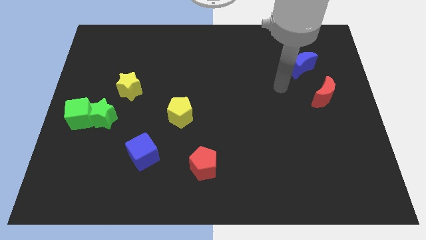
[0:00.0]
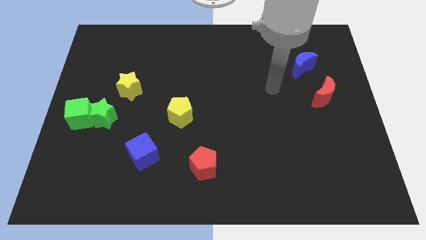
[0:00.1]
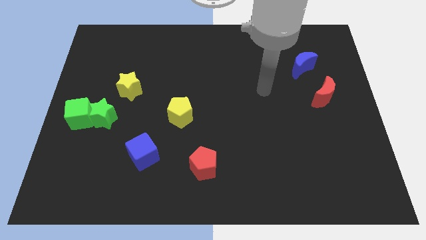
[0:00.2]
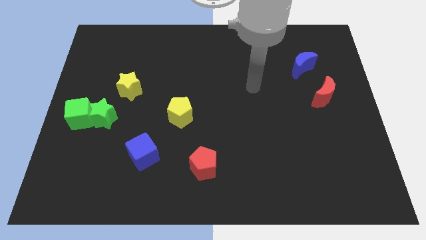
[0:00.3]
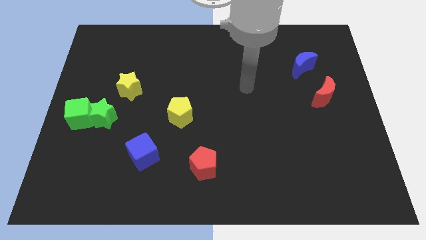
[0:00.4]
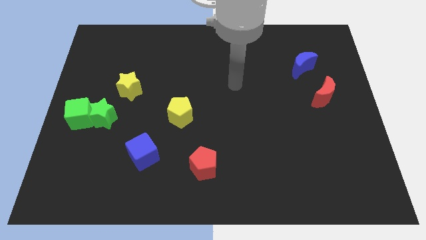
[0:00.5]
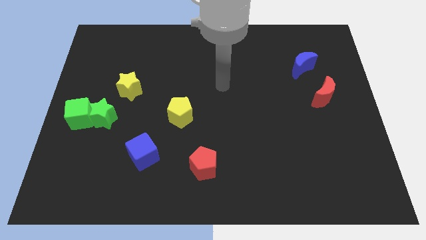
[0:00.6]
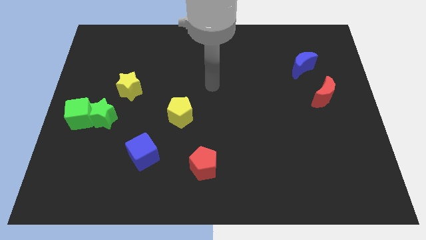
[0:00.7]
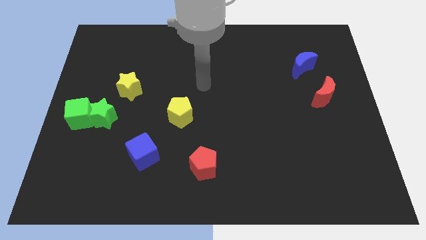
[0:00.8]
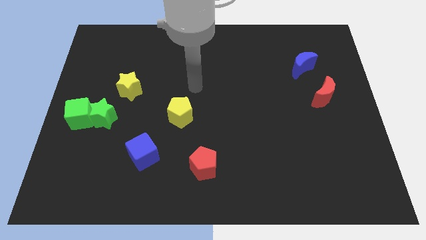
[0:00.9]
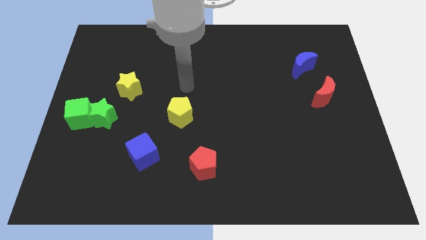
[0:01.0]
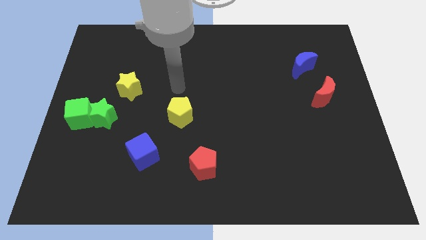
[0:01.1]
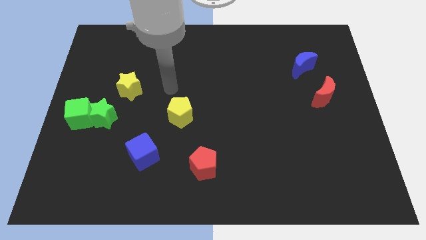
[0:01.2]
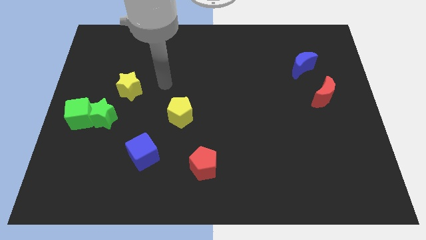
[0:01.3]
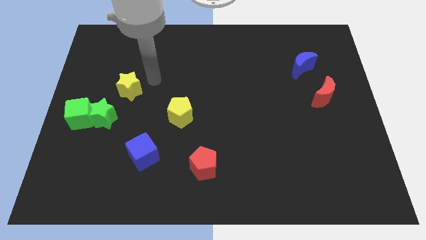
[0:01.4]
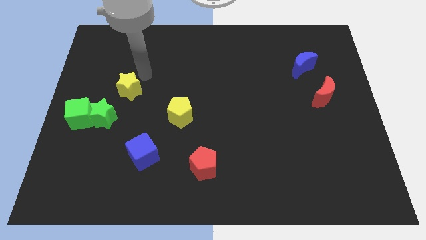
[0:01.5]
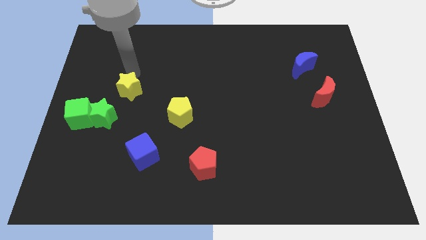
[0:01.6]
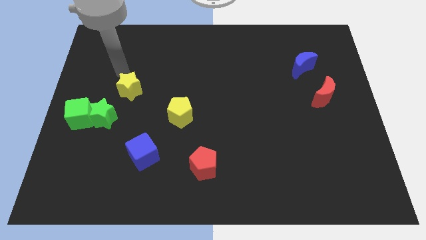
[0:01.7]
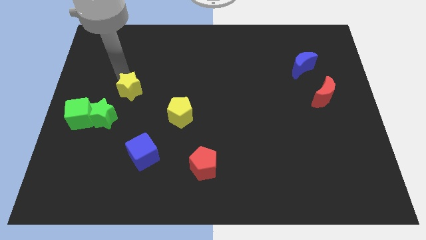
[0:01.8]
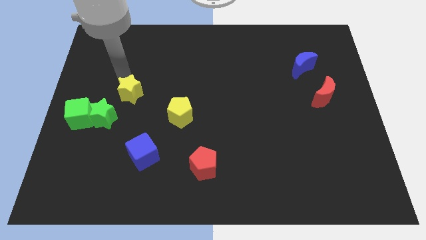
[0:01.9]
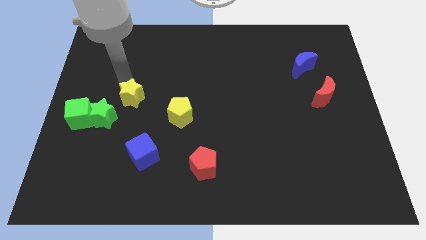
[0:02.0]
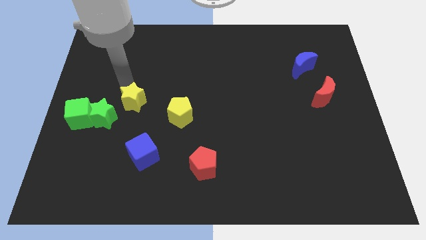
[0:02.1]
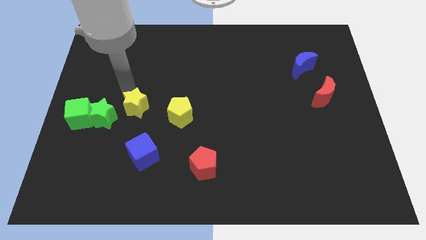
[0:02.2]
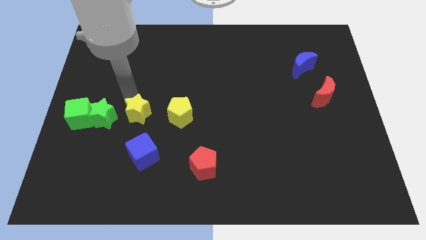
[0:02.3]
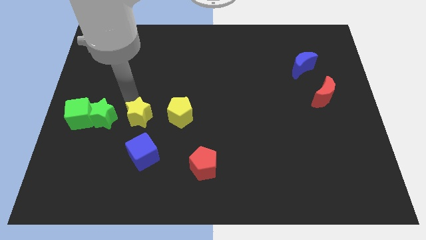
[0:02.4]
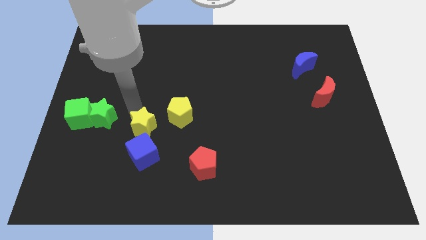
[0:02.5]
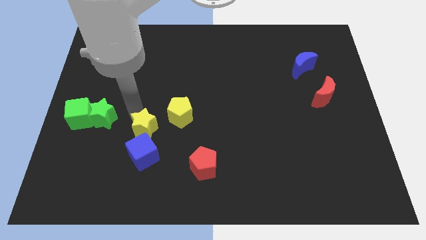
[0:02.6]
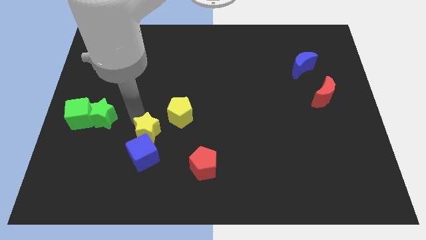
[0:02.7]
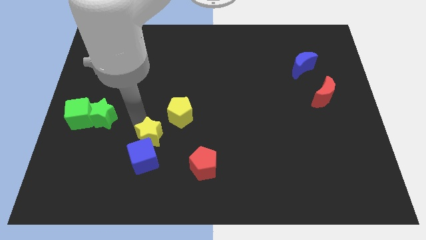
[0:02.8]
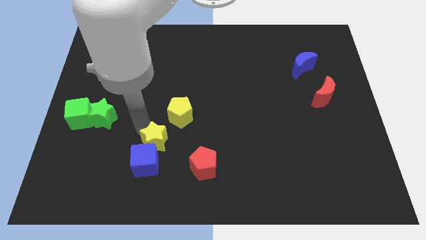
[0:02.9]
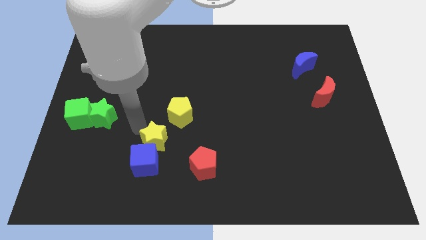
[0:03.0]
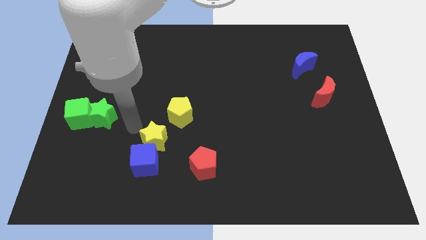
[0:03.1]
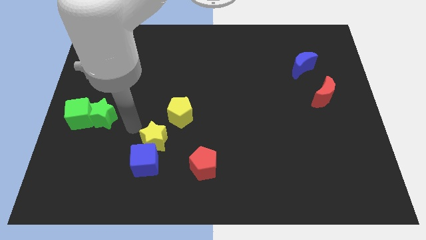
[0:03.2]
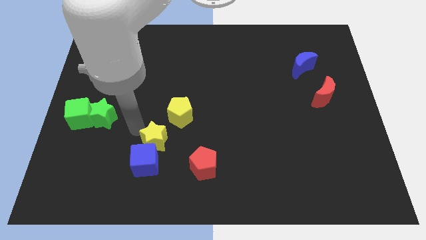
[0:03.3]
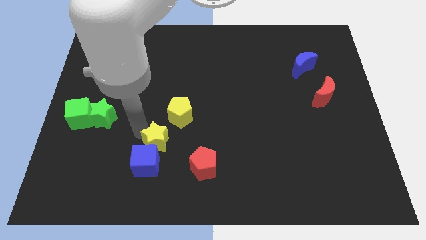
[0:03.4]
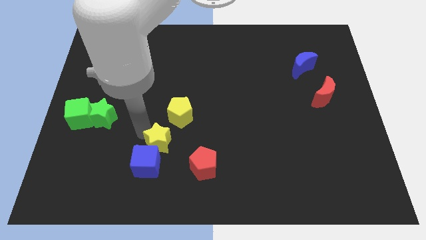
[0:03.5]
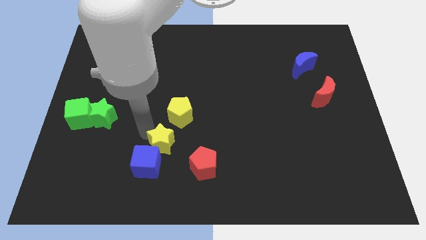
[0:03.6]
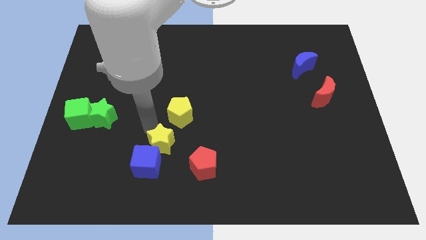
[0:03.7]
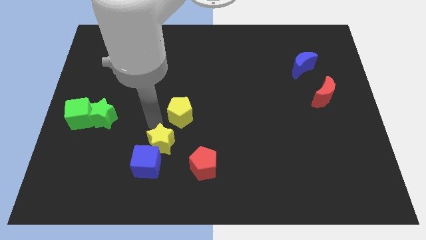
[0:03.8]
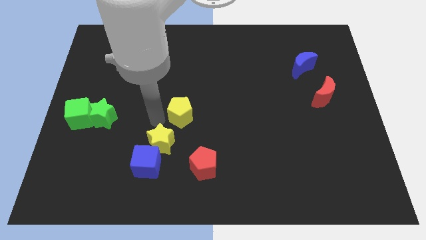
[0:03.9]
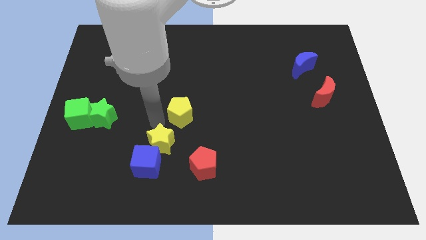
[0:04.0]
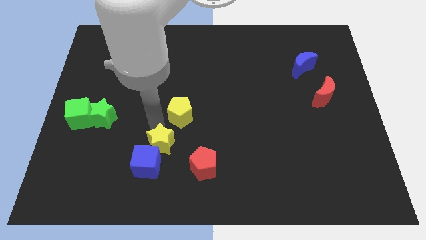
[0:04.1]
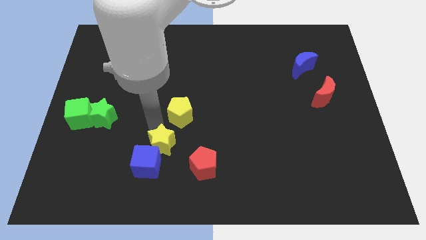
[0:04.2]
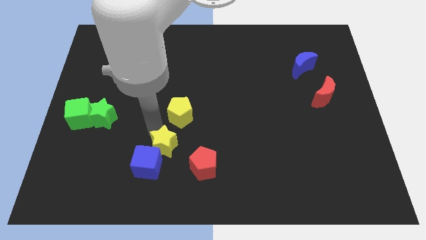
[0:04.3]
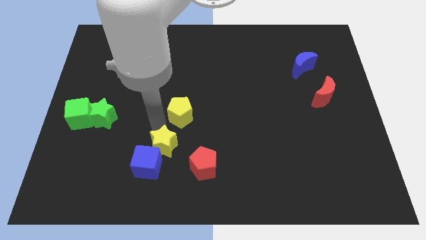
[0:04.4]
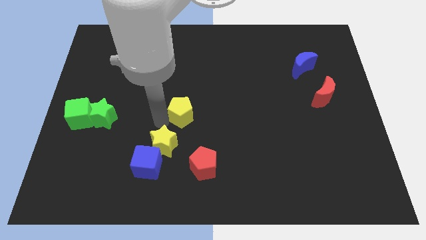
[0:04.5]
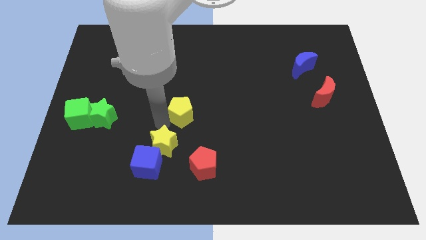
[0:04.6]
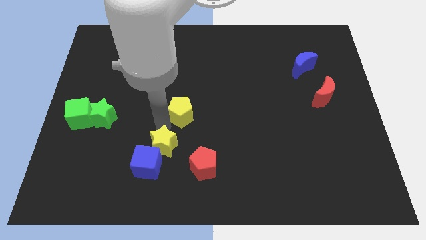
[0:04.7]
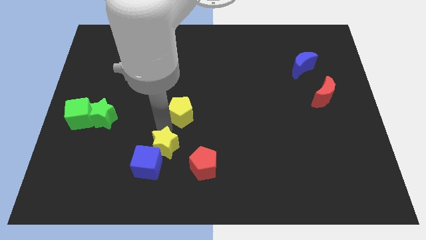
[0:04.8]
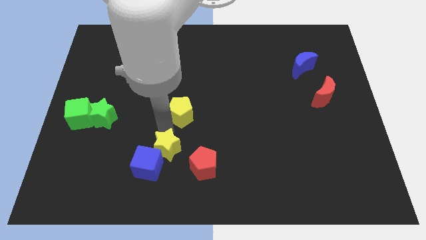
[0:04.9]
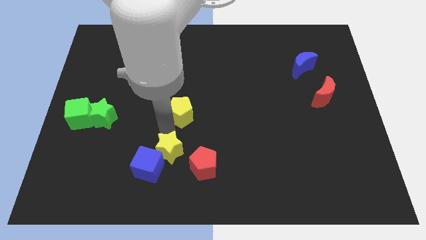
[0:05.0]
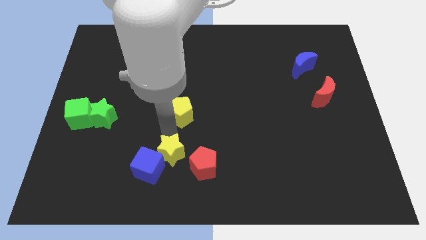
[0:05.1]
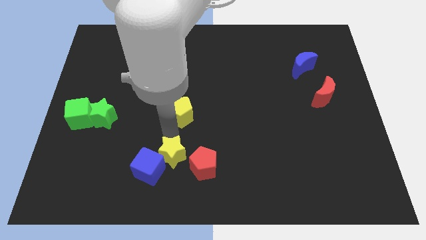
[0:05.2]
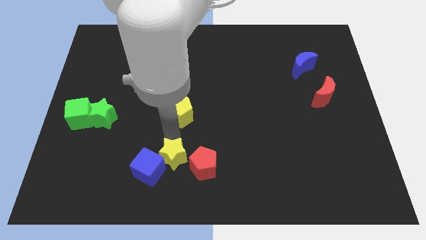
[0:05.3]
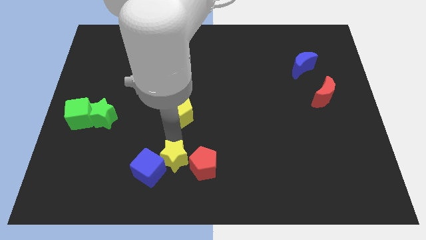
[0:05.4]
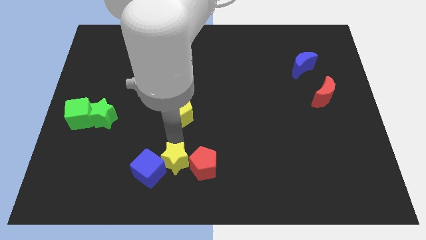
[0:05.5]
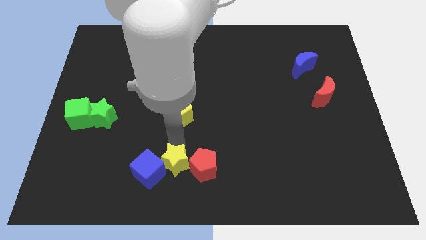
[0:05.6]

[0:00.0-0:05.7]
slide the yellow star to the bottom side
